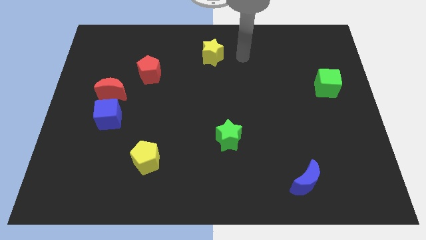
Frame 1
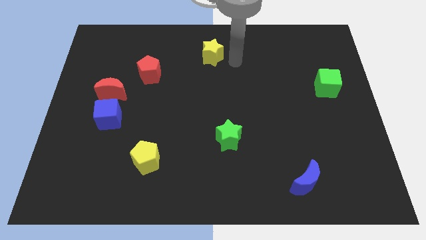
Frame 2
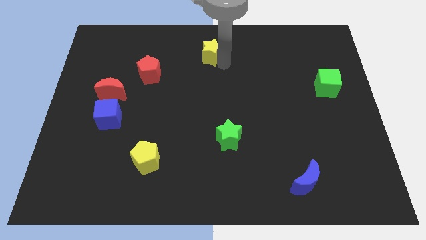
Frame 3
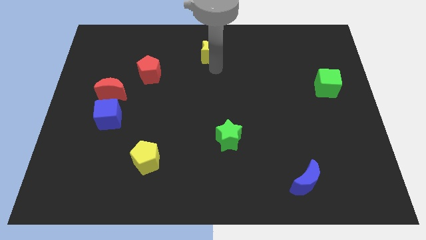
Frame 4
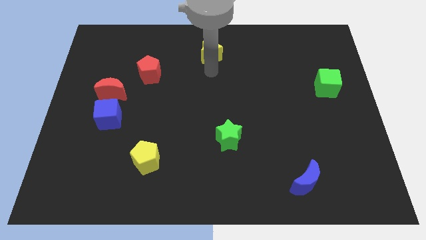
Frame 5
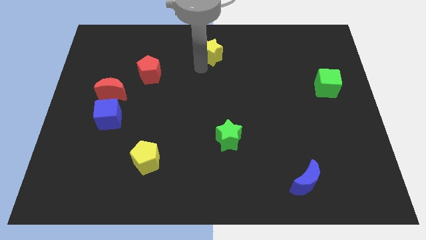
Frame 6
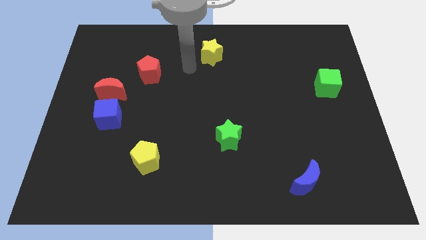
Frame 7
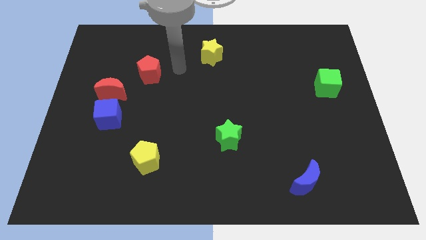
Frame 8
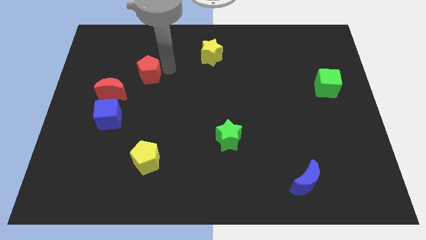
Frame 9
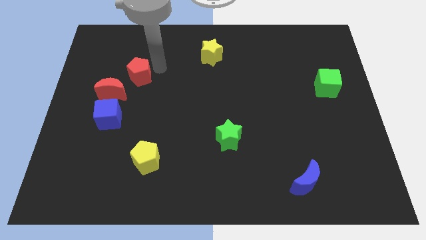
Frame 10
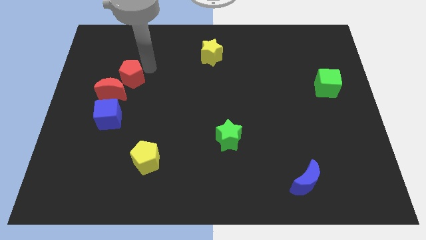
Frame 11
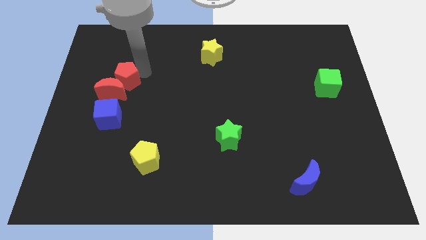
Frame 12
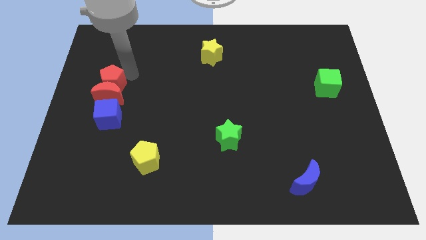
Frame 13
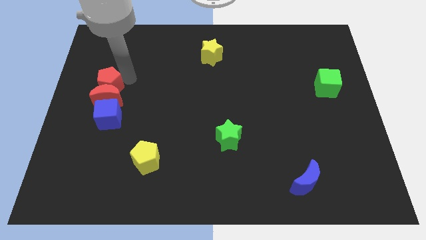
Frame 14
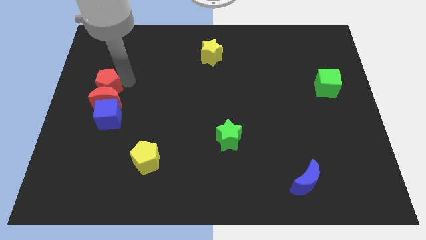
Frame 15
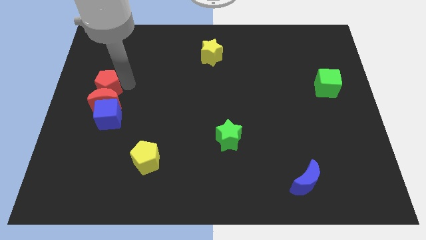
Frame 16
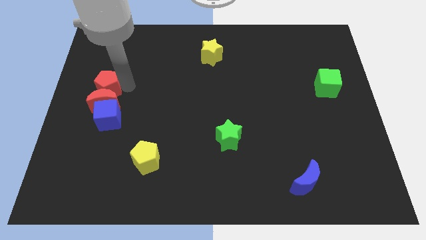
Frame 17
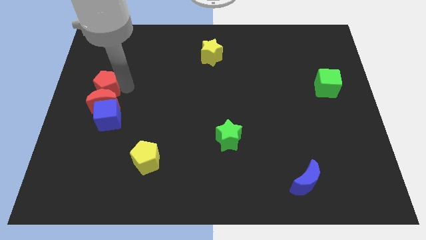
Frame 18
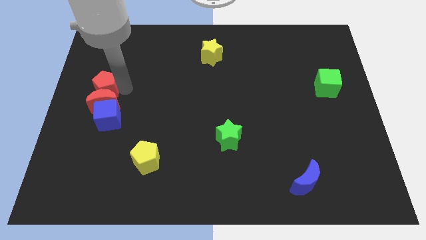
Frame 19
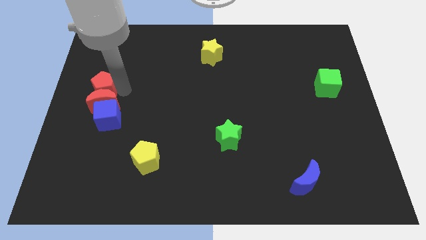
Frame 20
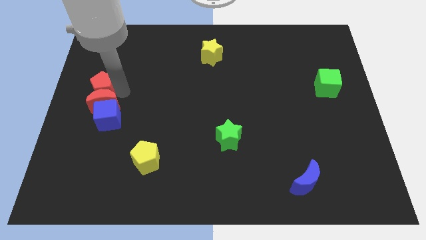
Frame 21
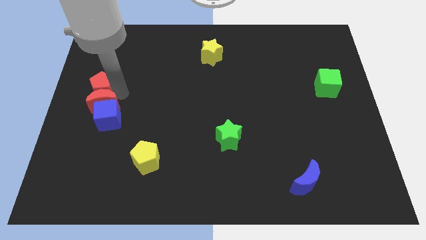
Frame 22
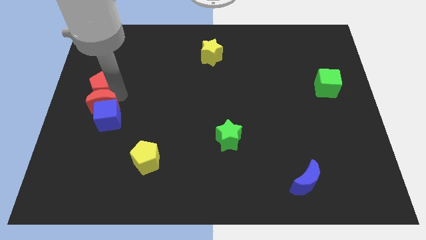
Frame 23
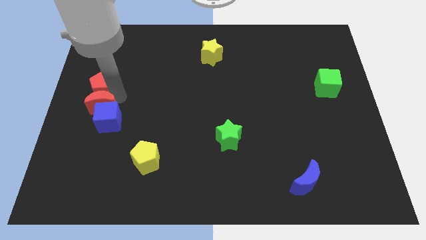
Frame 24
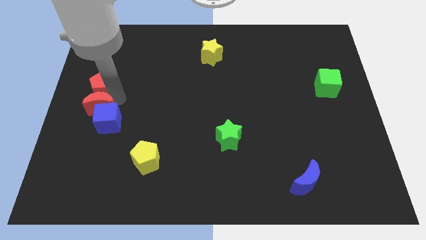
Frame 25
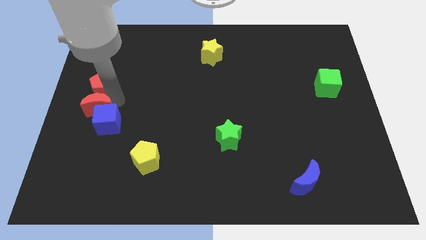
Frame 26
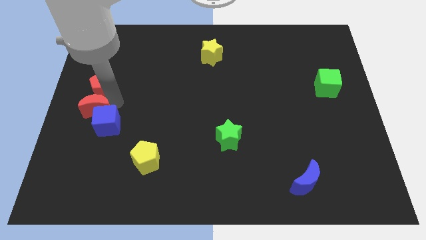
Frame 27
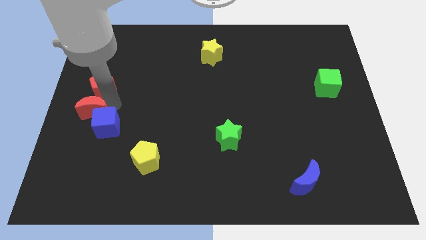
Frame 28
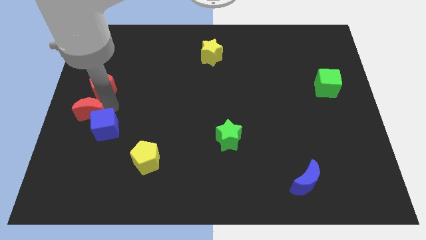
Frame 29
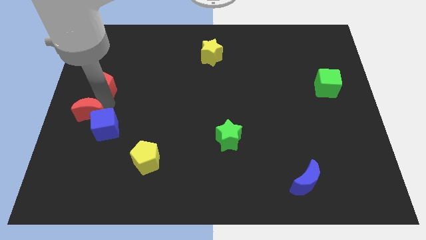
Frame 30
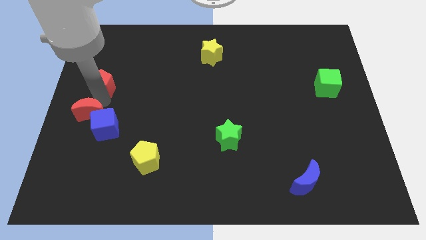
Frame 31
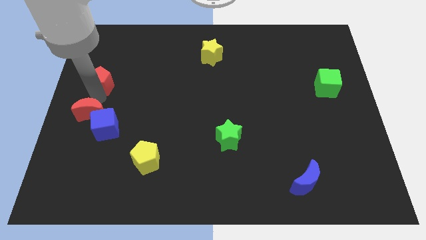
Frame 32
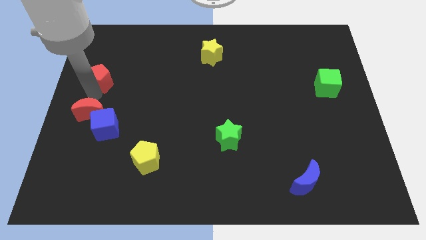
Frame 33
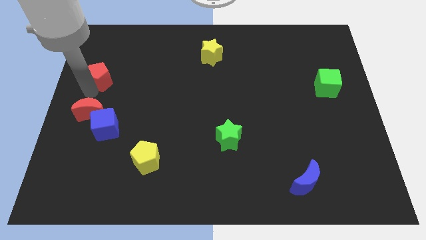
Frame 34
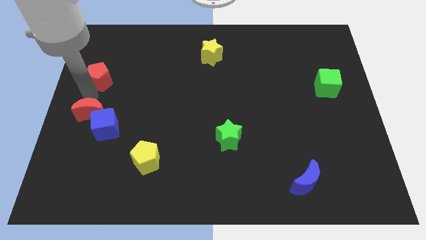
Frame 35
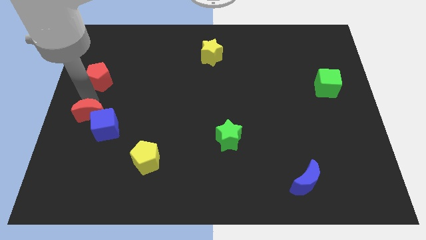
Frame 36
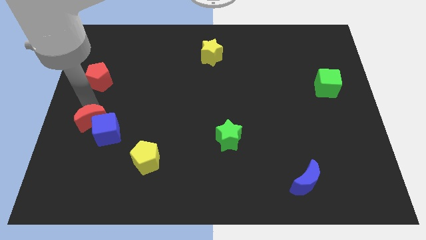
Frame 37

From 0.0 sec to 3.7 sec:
slightly push the red moon downwards

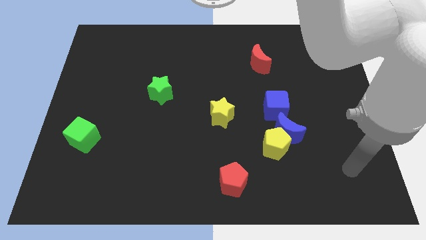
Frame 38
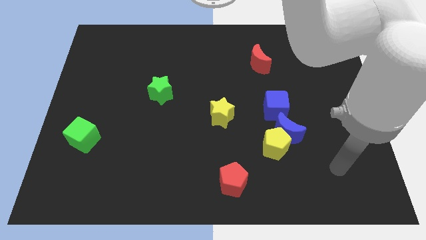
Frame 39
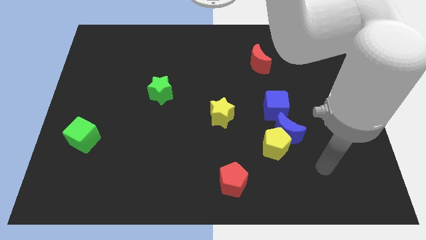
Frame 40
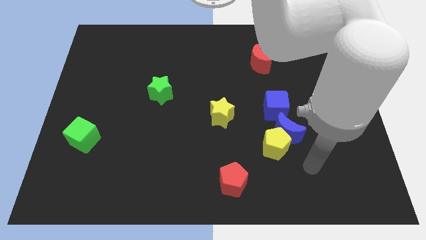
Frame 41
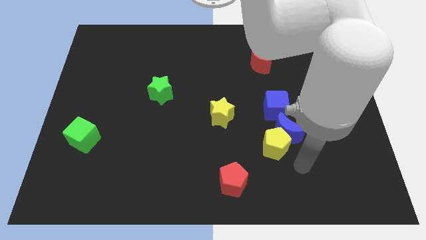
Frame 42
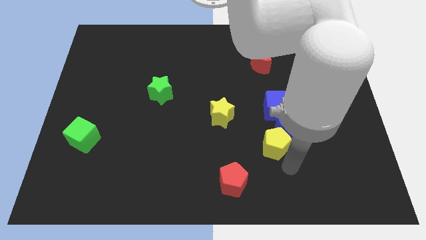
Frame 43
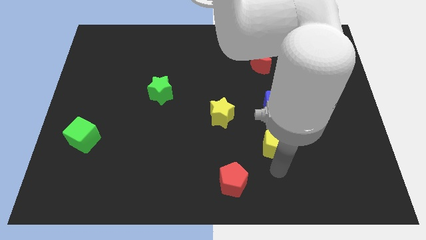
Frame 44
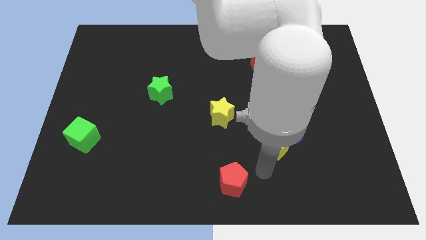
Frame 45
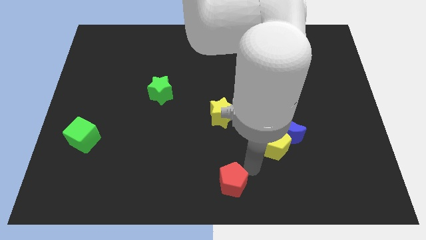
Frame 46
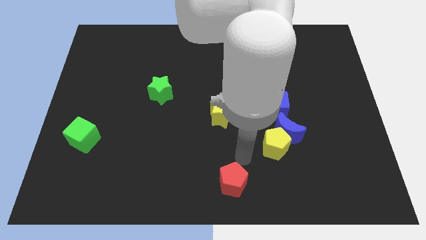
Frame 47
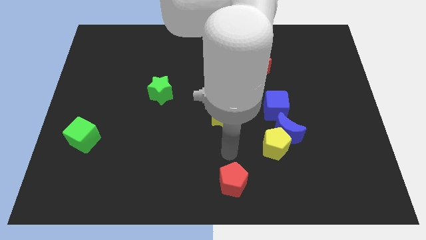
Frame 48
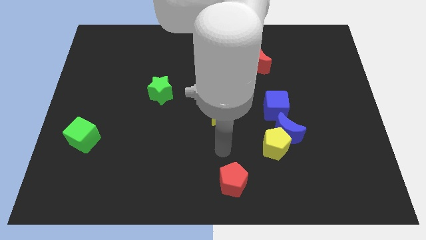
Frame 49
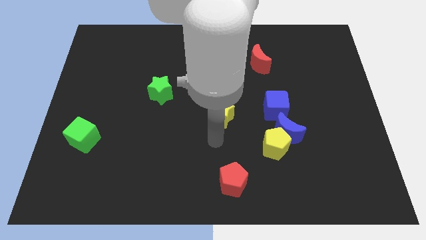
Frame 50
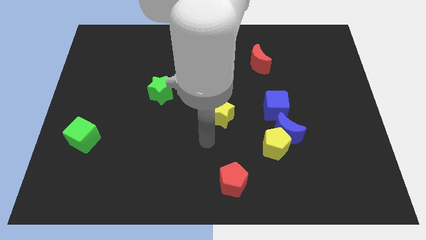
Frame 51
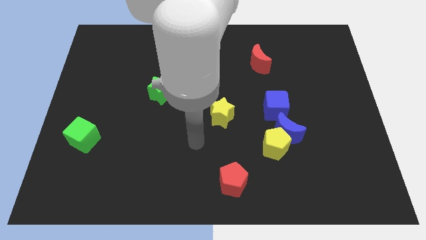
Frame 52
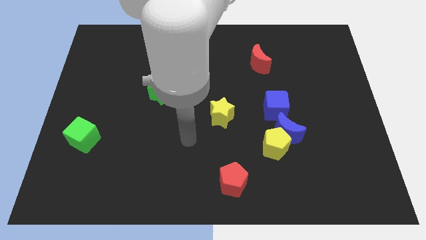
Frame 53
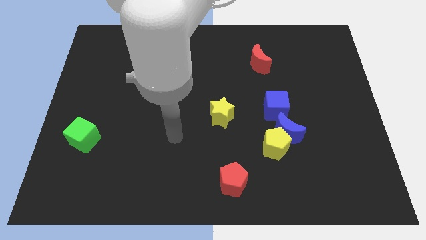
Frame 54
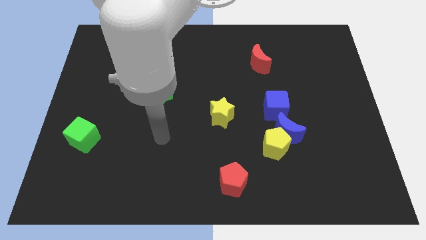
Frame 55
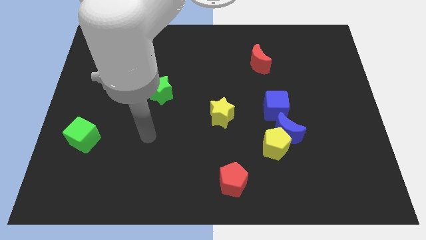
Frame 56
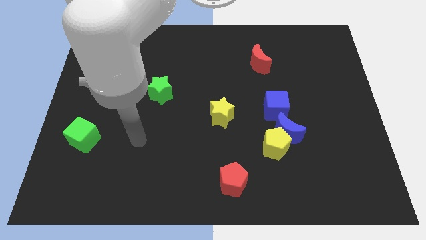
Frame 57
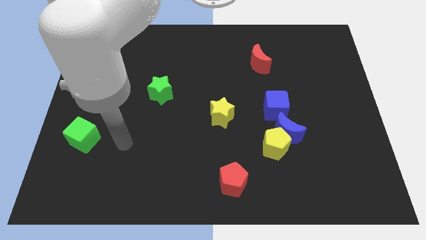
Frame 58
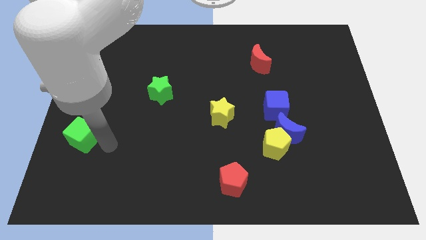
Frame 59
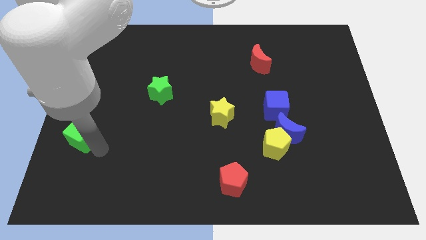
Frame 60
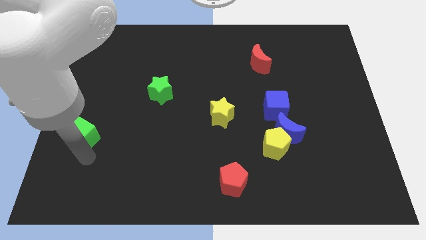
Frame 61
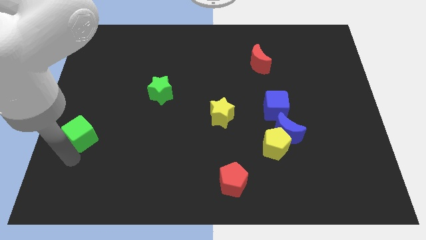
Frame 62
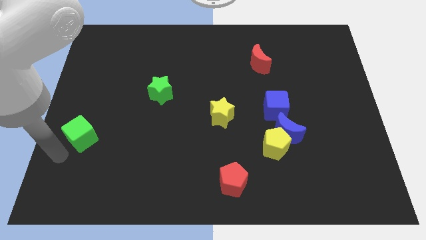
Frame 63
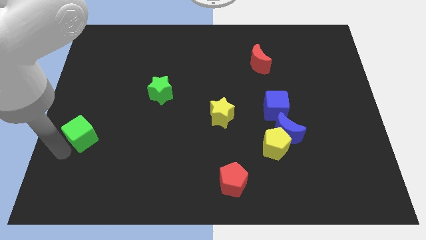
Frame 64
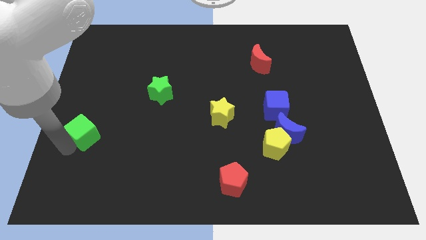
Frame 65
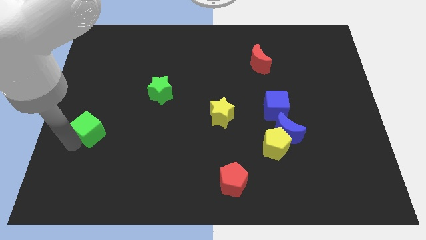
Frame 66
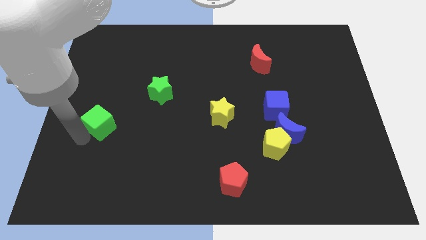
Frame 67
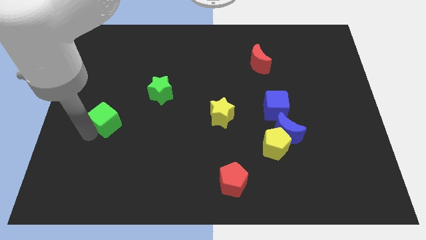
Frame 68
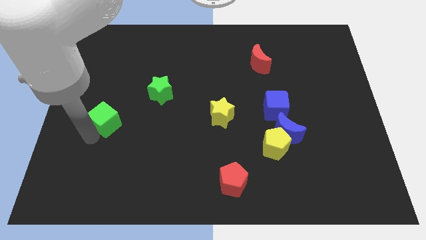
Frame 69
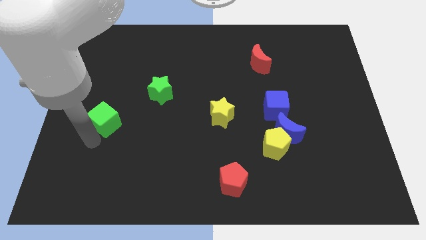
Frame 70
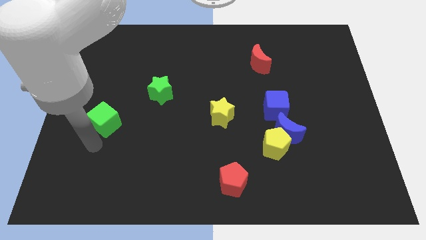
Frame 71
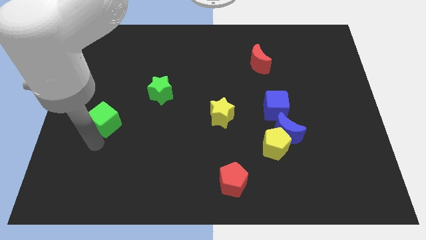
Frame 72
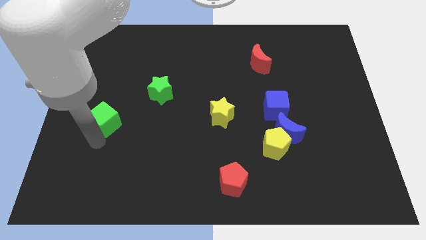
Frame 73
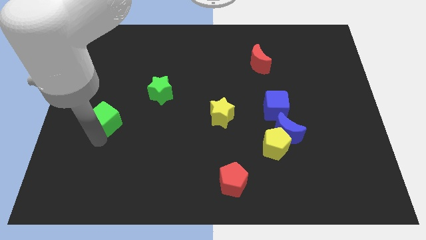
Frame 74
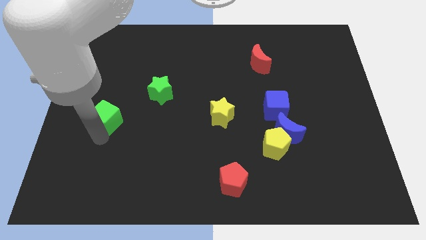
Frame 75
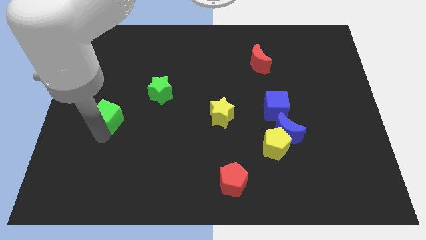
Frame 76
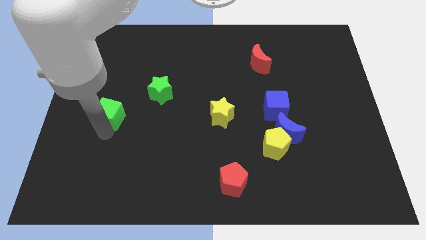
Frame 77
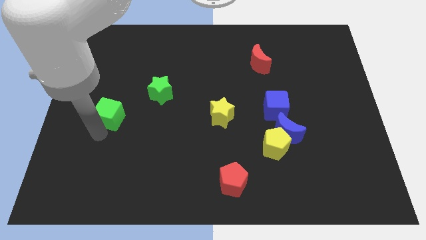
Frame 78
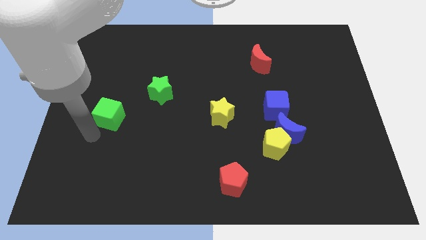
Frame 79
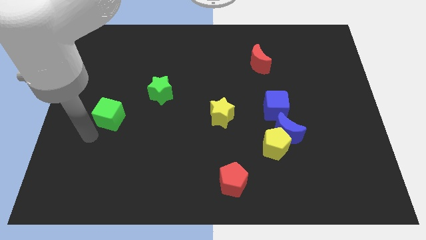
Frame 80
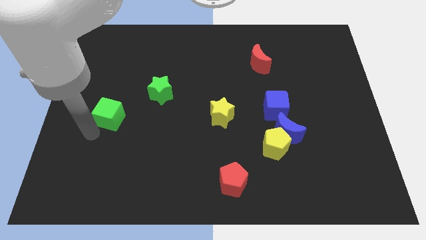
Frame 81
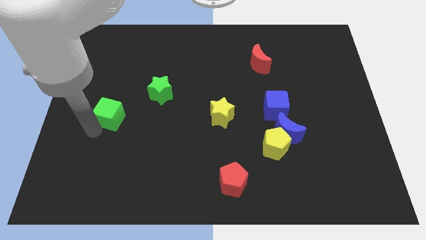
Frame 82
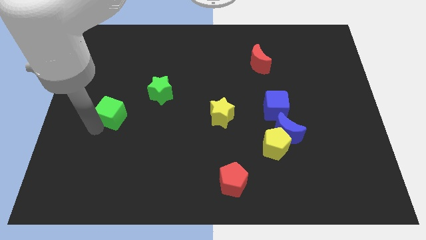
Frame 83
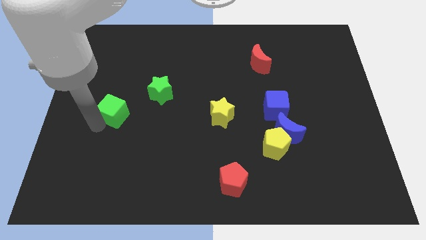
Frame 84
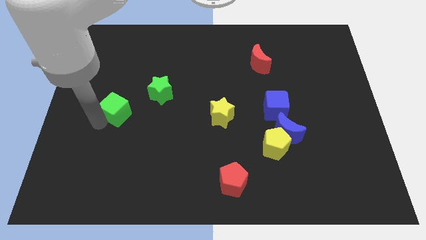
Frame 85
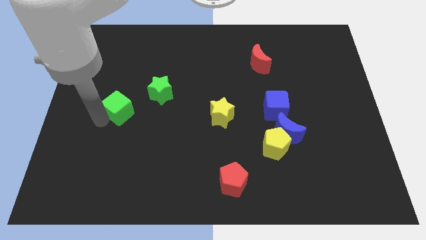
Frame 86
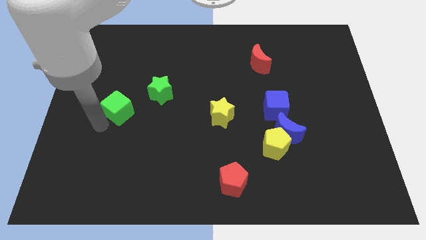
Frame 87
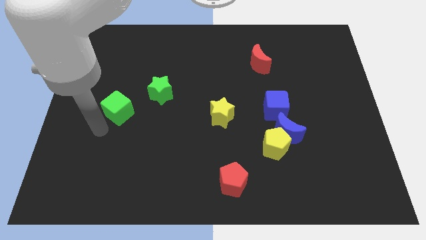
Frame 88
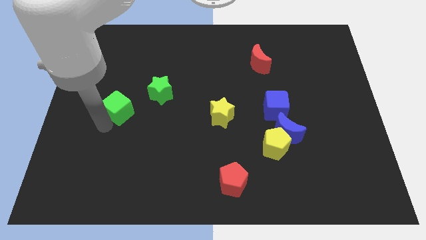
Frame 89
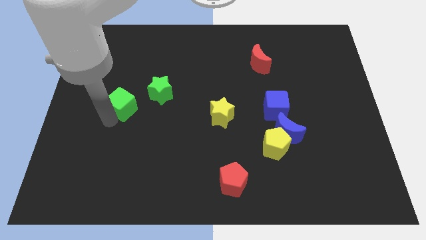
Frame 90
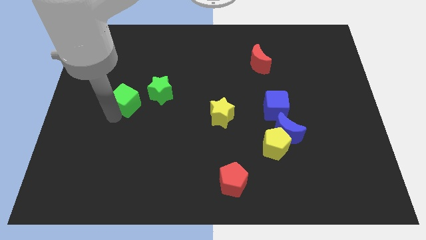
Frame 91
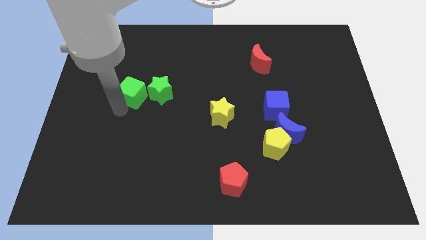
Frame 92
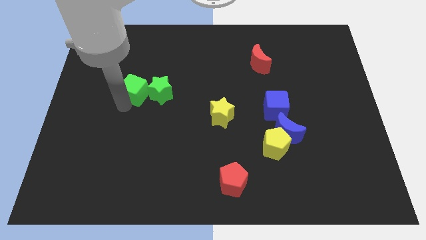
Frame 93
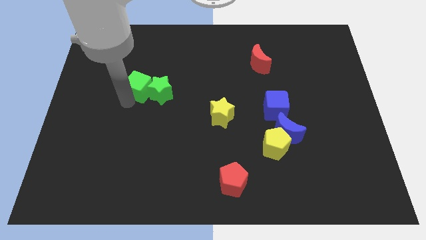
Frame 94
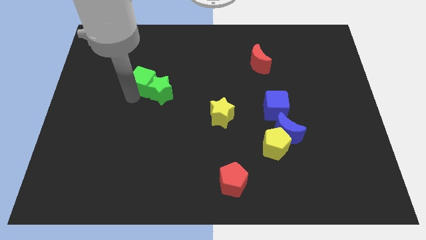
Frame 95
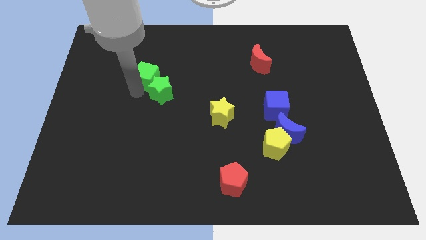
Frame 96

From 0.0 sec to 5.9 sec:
slide the green cube upwards and to the right
